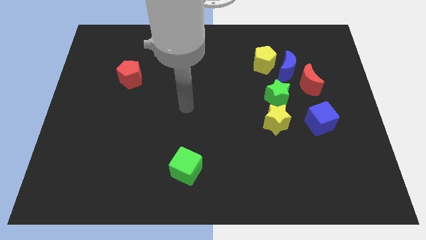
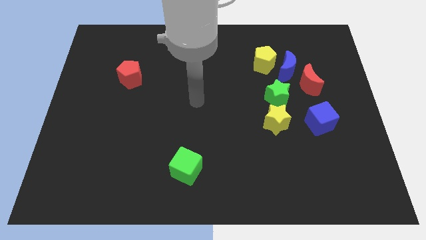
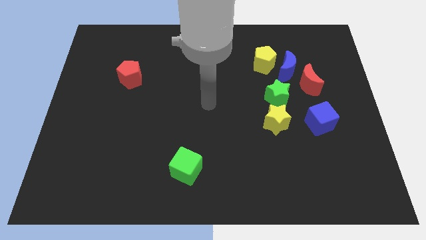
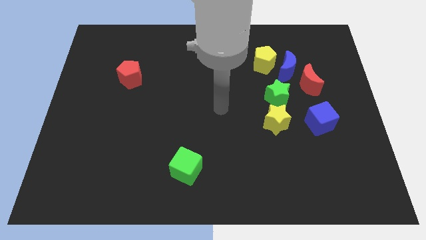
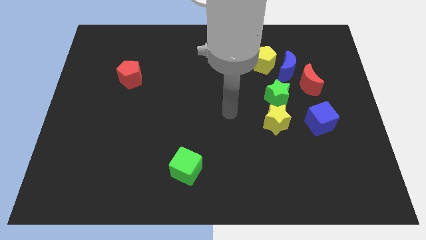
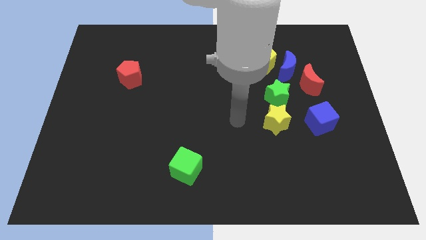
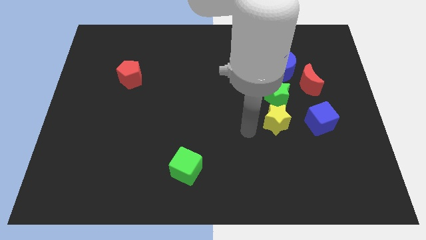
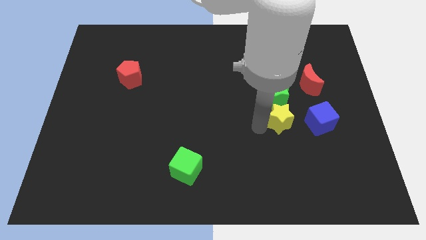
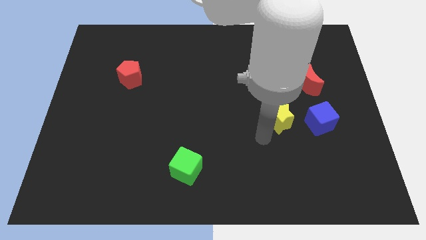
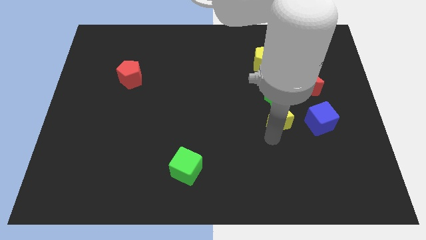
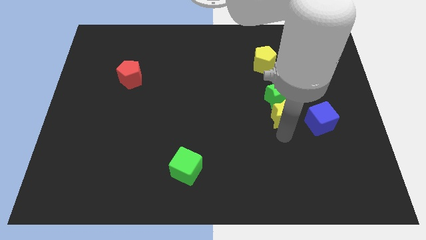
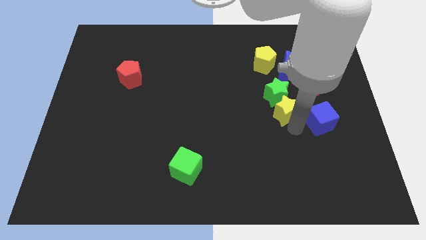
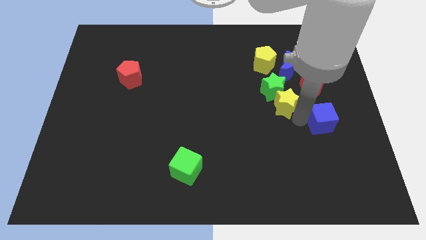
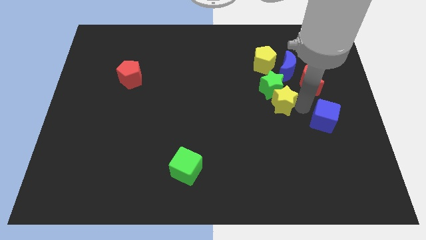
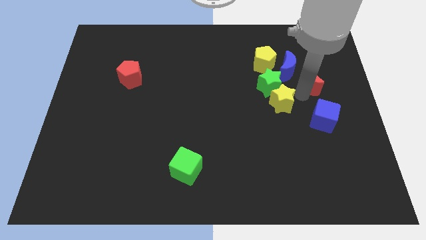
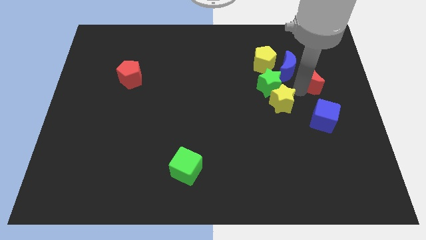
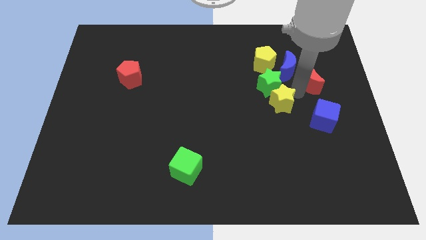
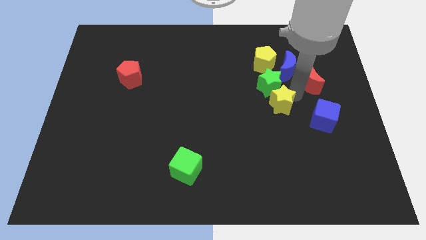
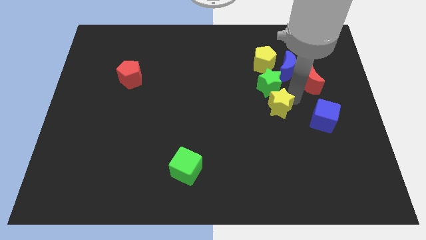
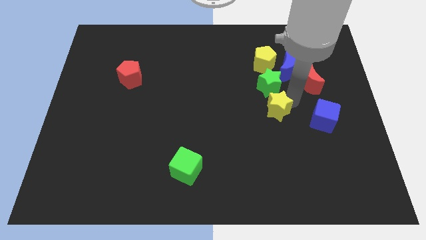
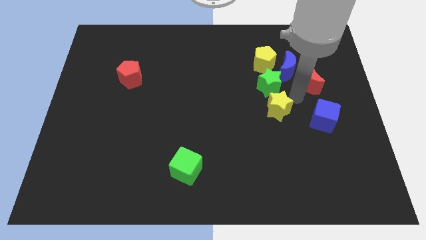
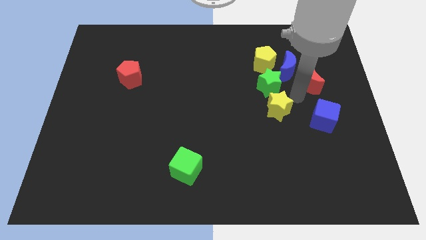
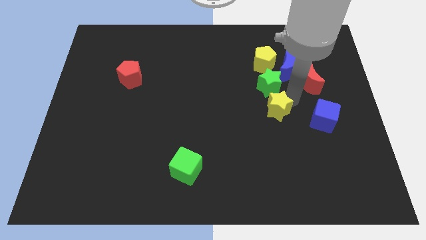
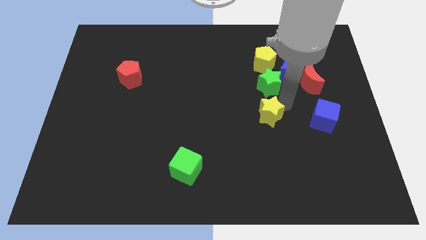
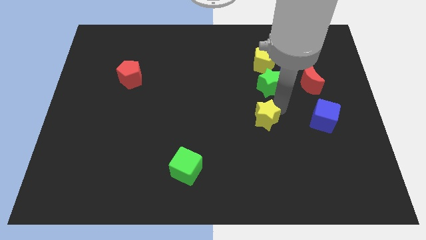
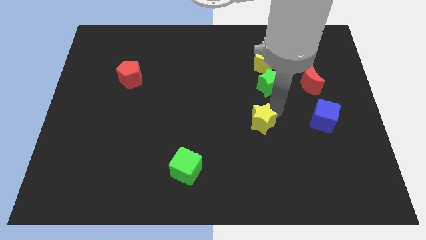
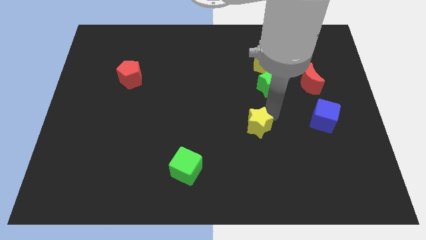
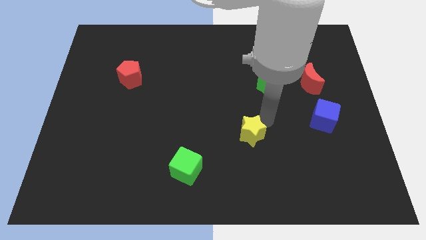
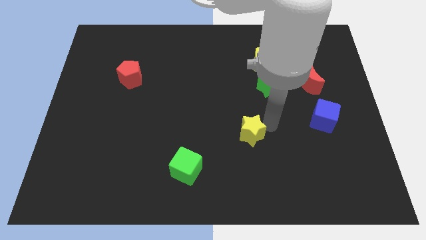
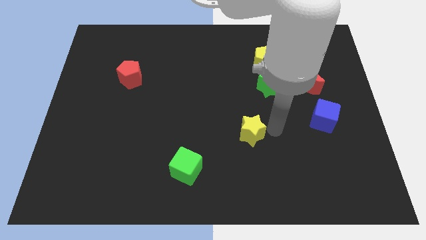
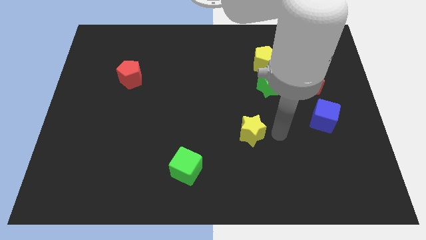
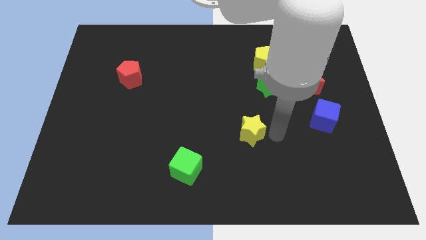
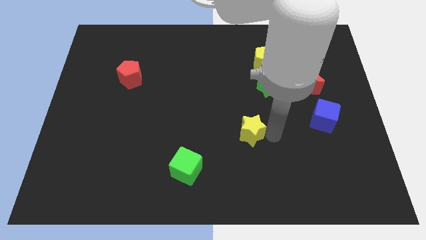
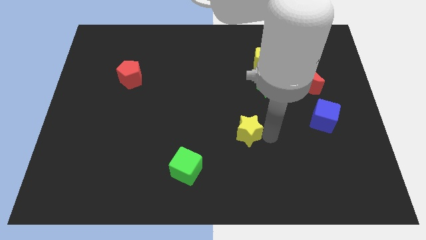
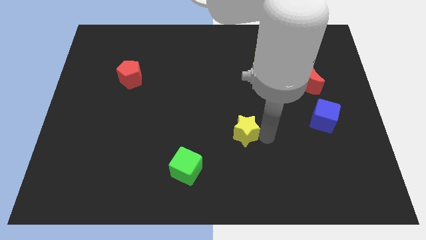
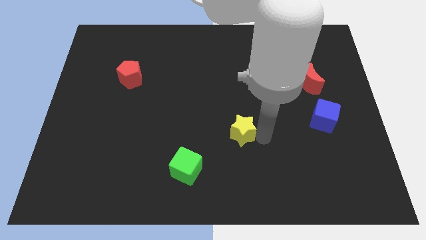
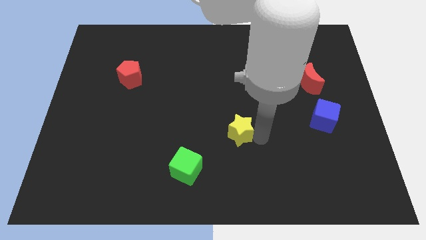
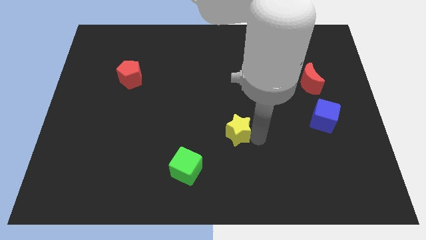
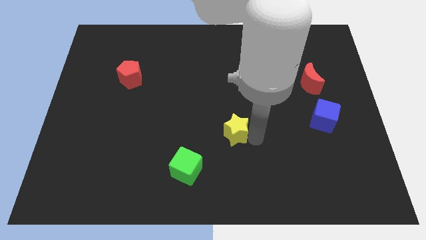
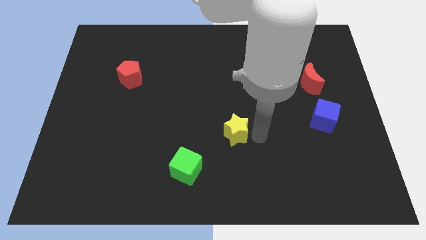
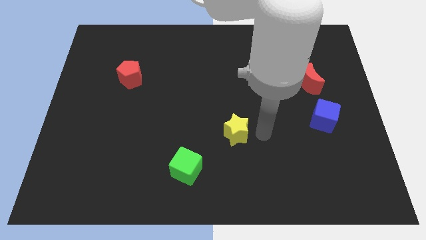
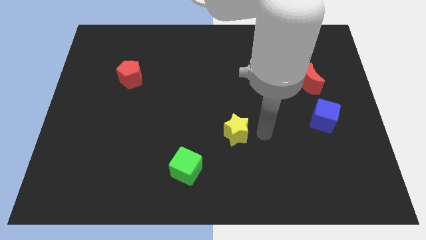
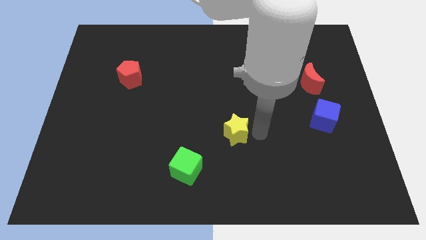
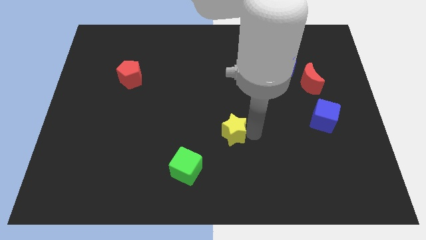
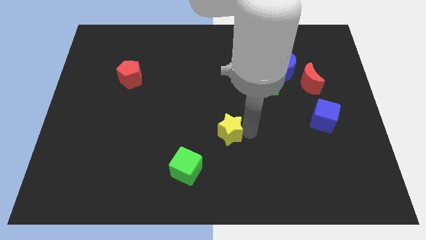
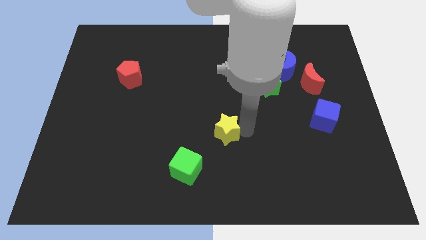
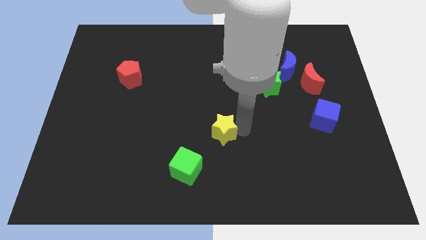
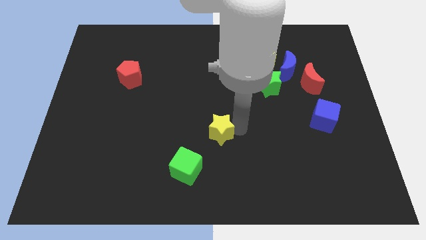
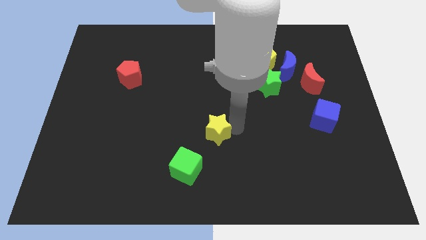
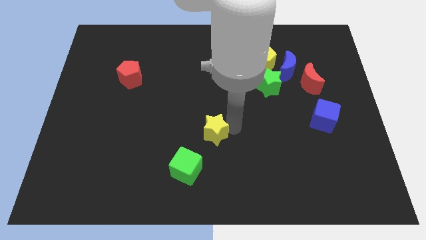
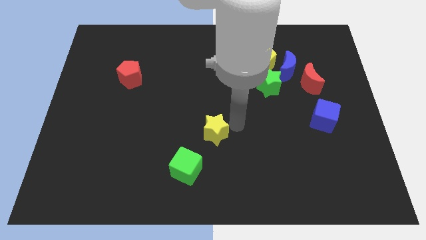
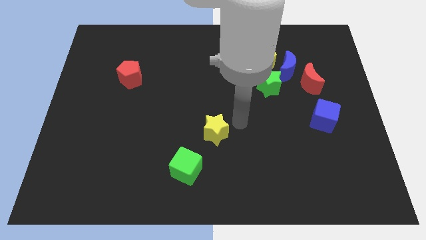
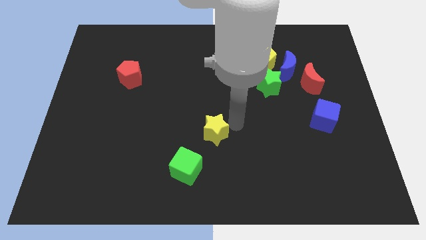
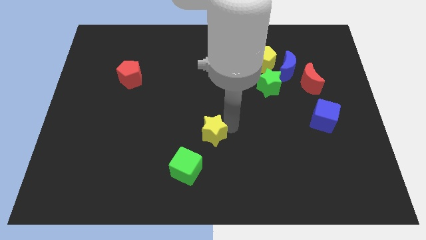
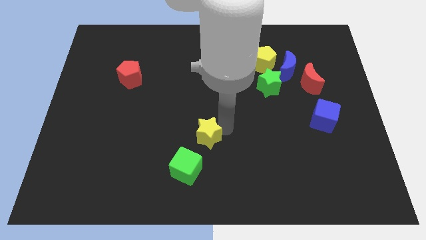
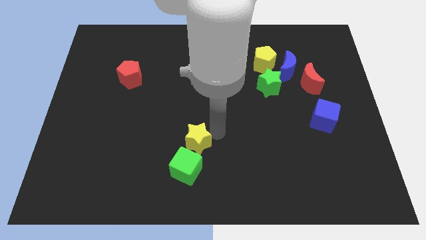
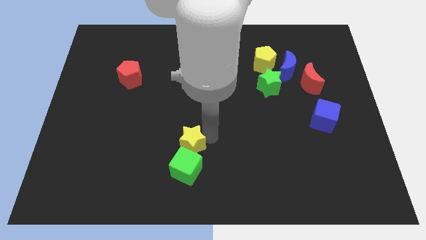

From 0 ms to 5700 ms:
slide the yellow star to the top left side of the green cube

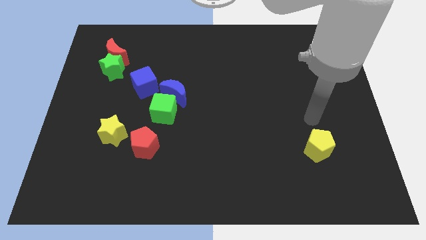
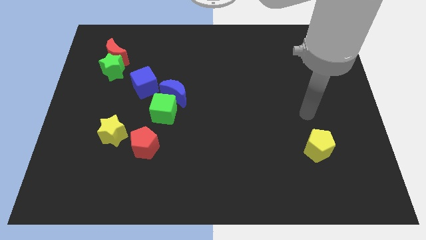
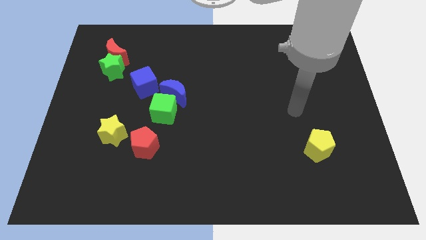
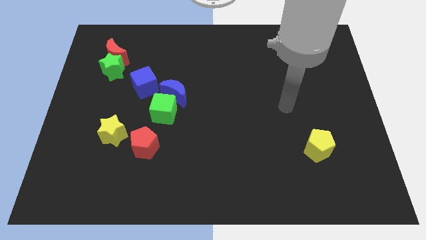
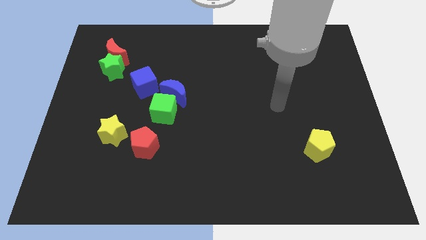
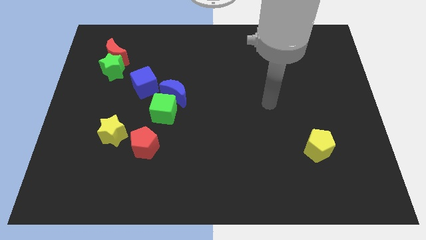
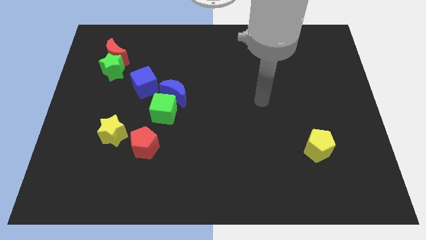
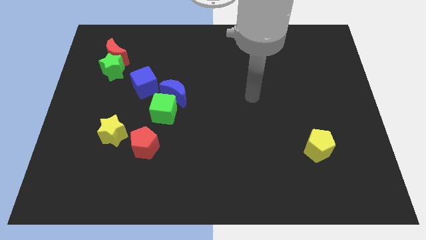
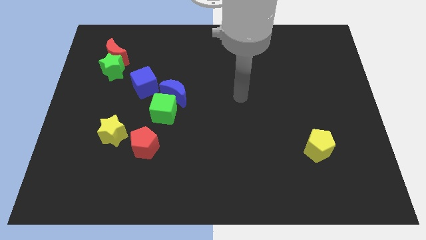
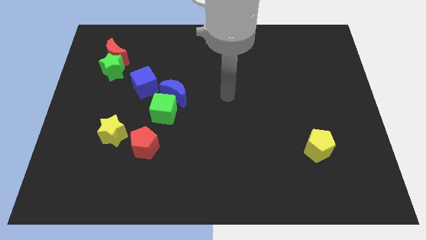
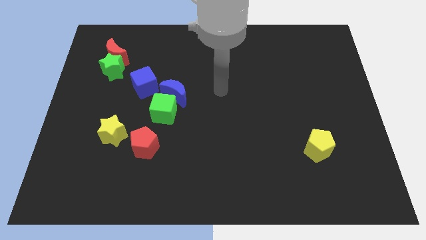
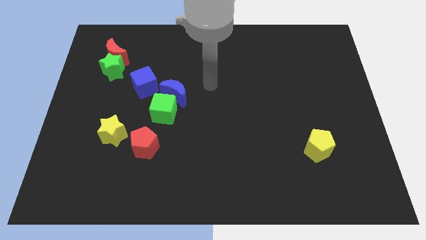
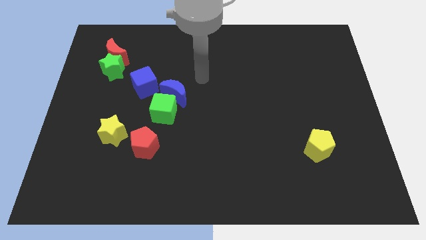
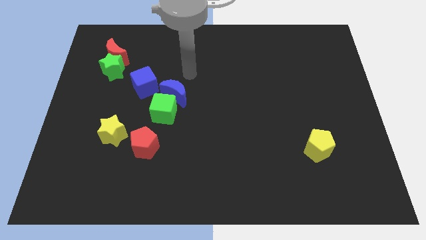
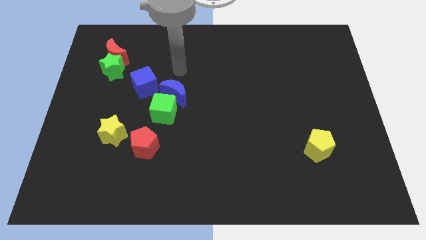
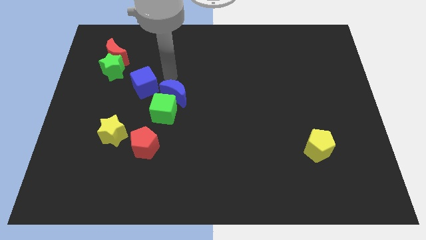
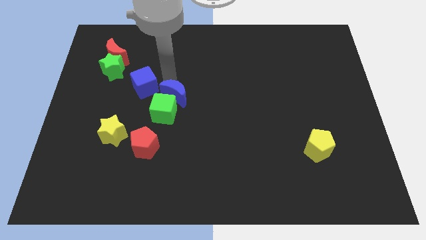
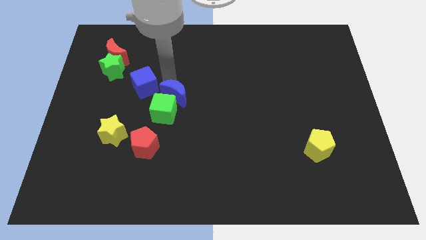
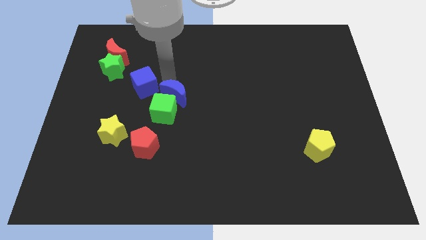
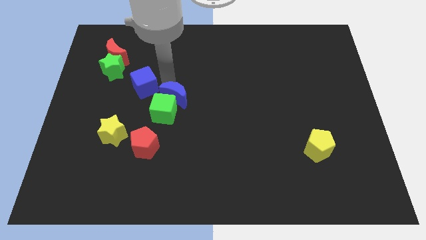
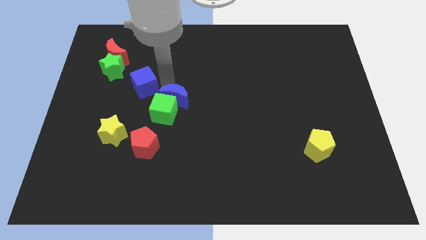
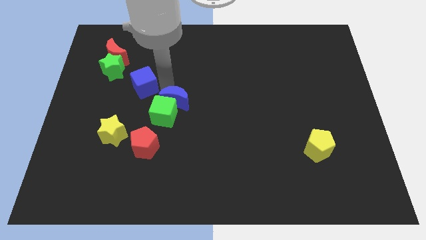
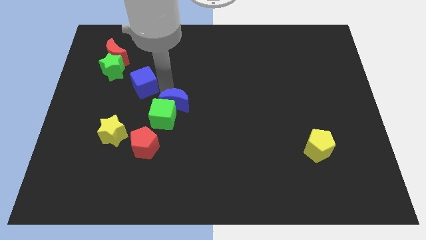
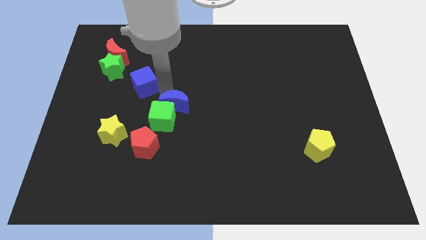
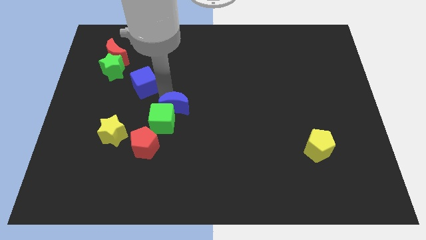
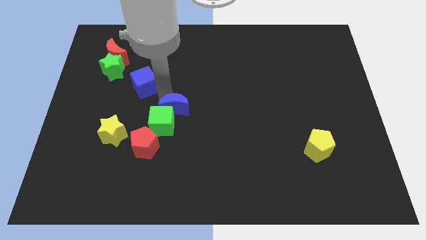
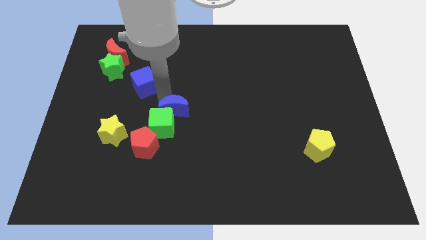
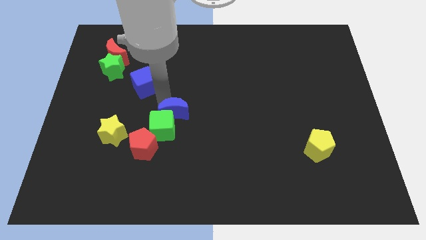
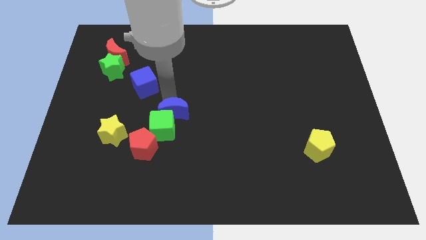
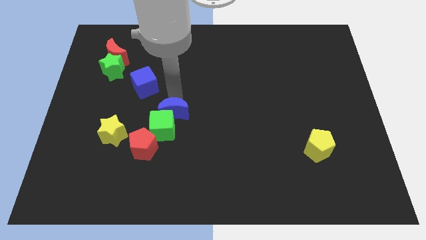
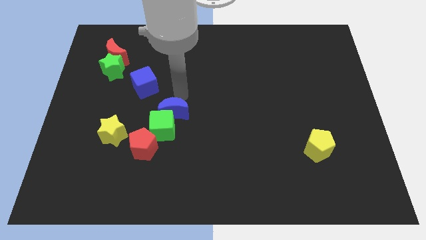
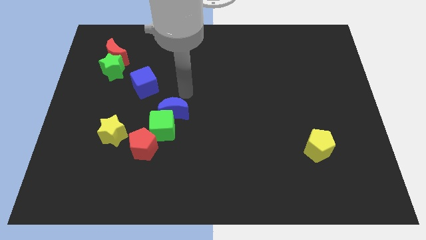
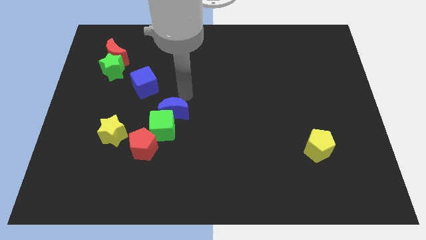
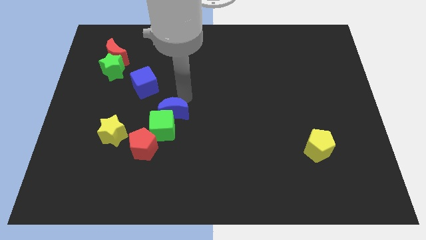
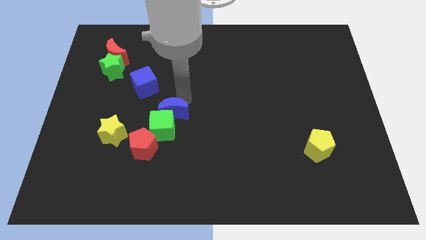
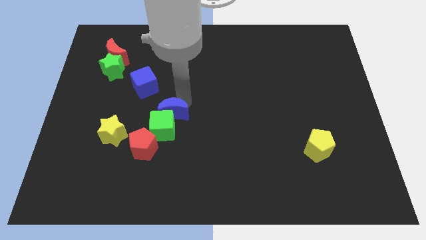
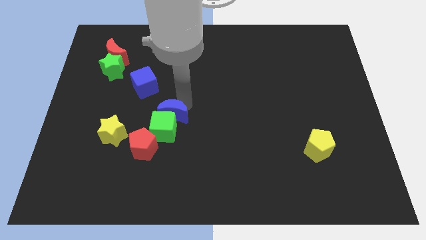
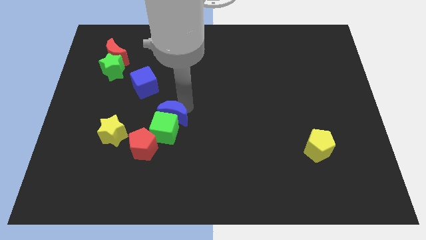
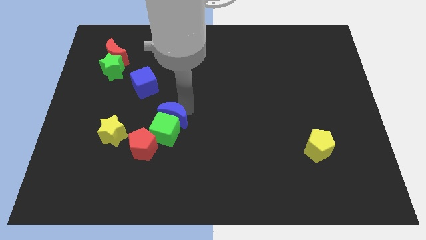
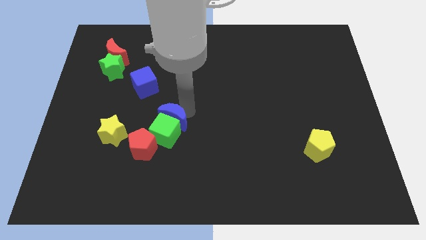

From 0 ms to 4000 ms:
push the blue moon to the right side of the yellow star
